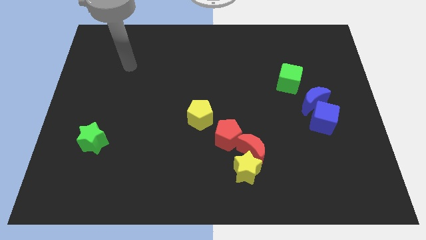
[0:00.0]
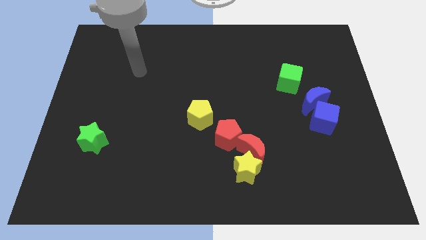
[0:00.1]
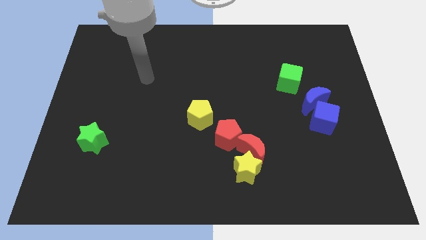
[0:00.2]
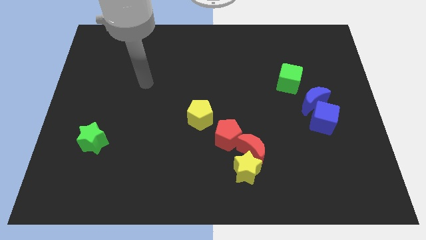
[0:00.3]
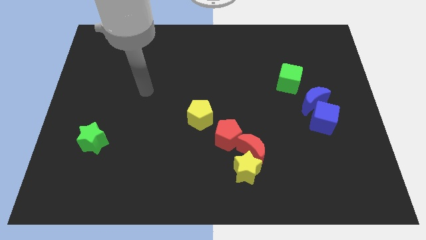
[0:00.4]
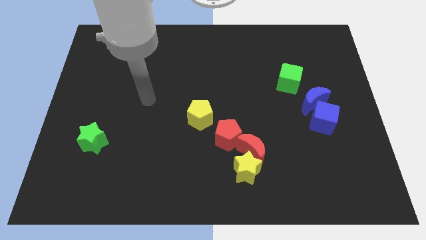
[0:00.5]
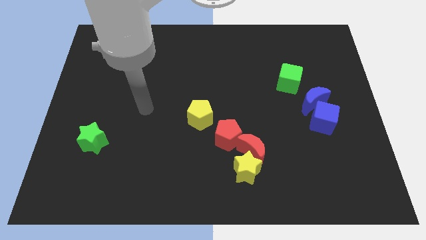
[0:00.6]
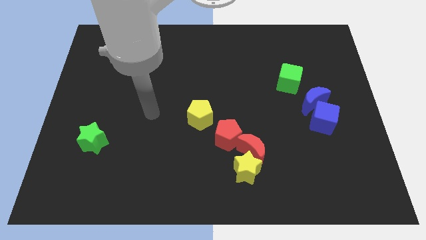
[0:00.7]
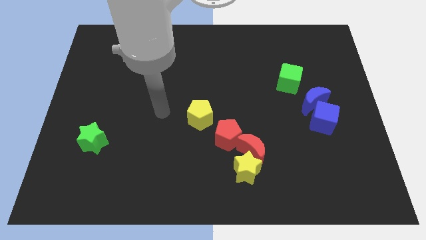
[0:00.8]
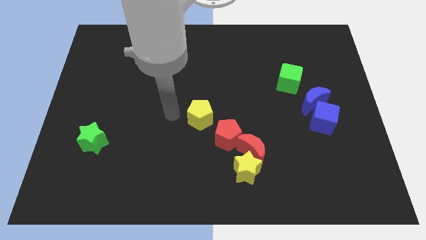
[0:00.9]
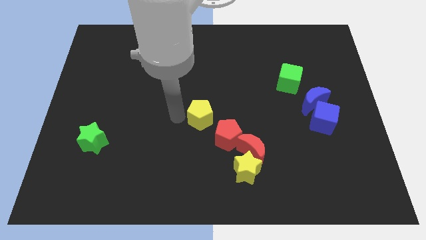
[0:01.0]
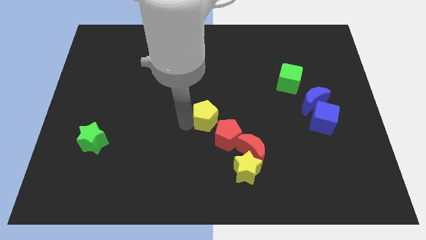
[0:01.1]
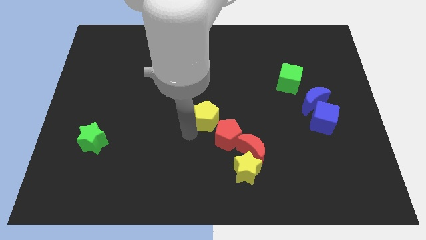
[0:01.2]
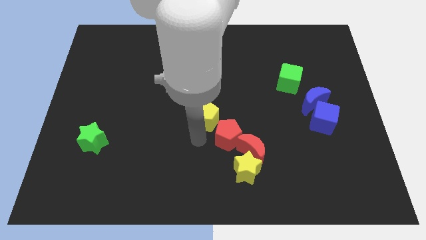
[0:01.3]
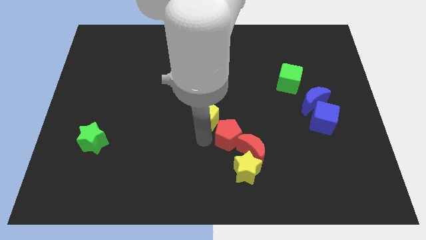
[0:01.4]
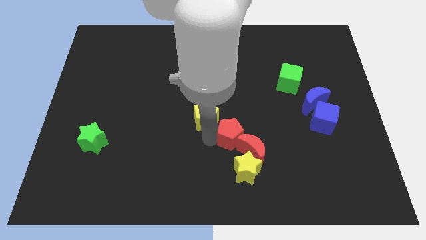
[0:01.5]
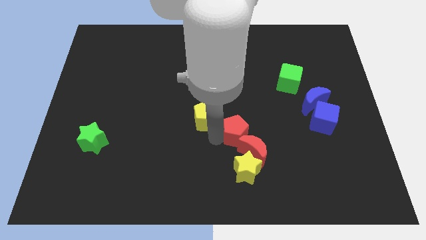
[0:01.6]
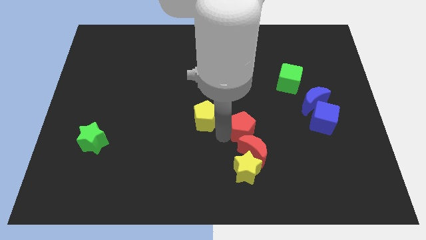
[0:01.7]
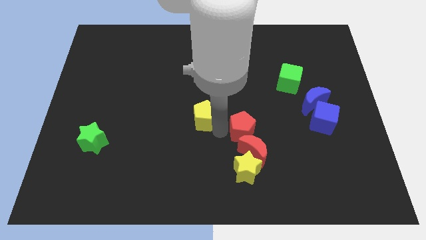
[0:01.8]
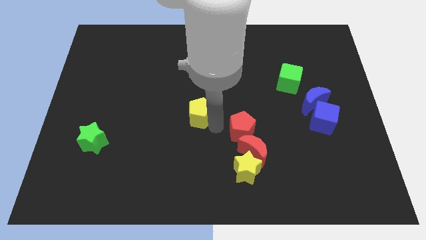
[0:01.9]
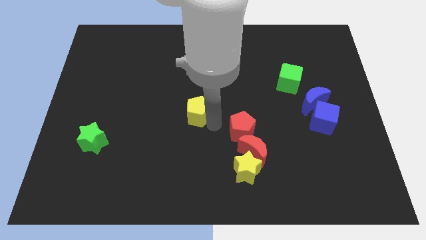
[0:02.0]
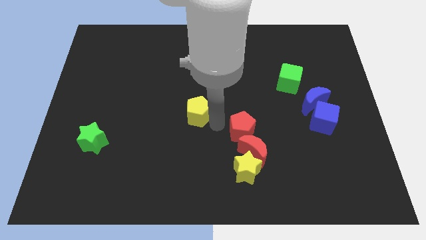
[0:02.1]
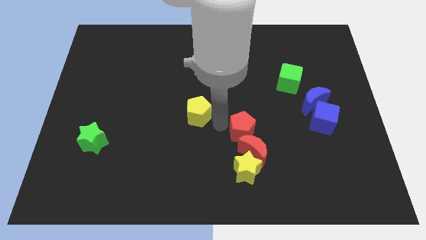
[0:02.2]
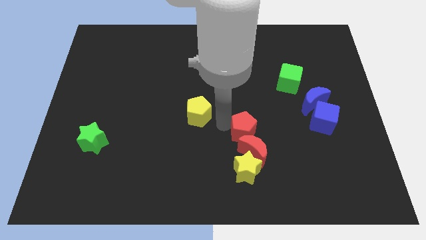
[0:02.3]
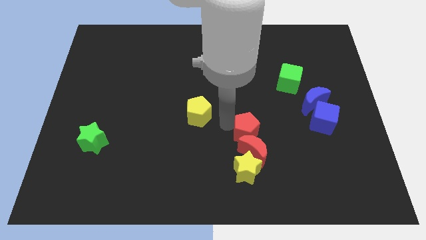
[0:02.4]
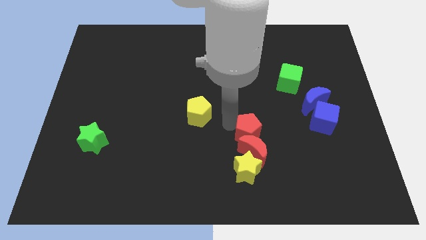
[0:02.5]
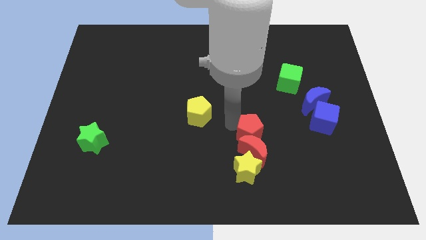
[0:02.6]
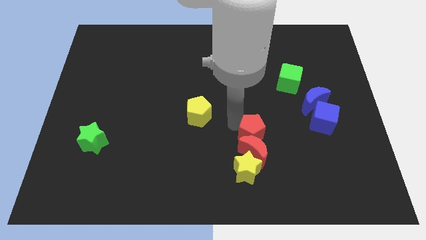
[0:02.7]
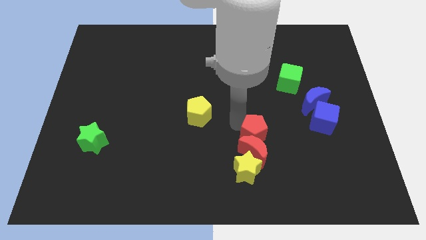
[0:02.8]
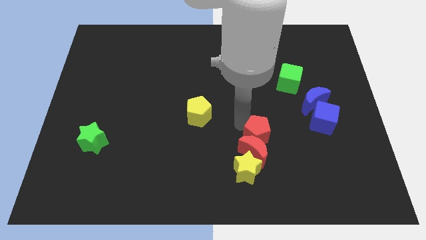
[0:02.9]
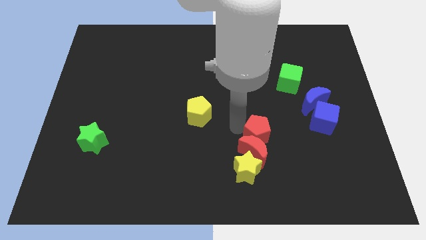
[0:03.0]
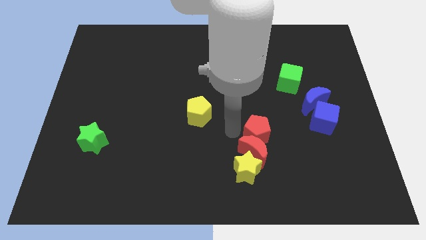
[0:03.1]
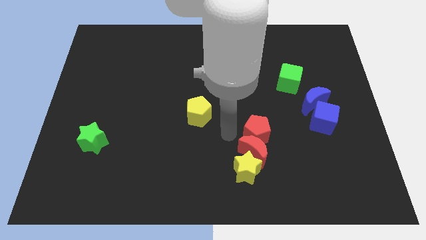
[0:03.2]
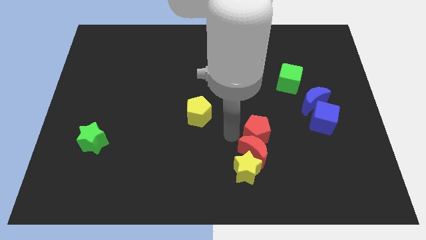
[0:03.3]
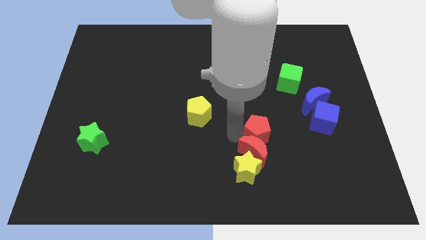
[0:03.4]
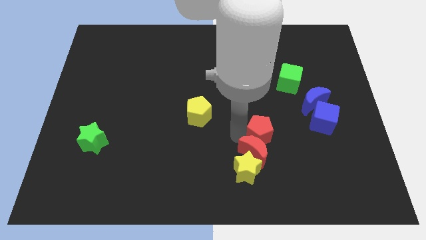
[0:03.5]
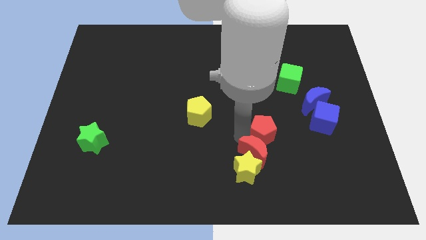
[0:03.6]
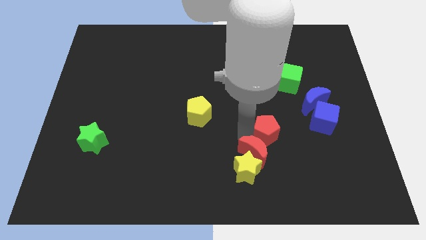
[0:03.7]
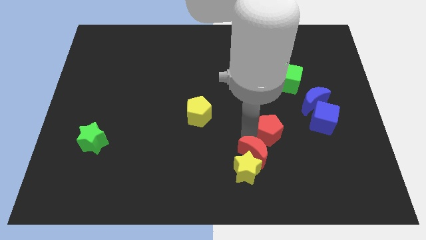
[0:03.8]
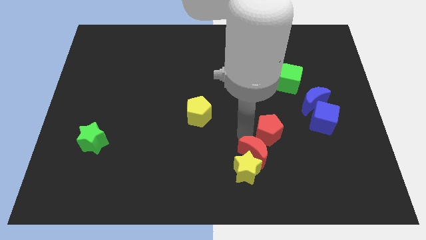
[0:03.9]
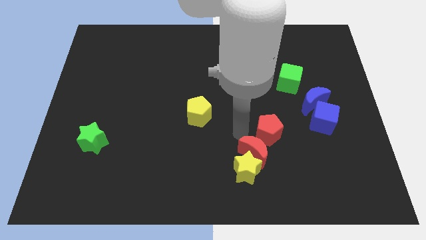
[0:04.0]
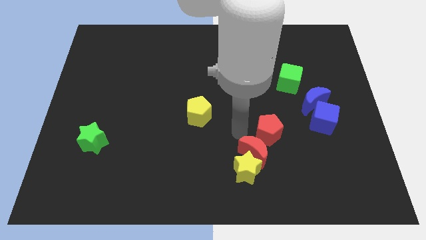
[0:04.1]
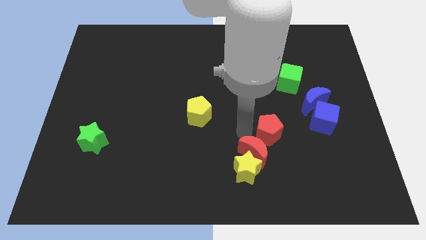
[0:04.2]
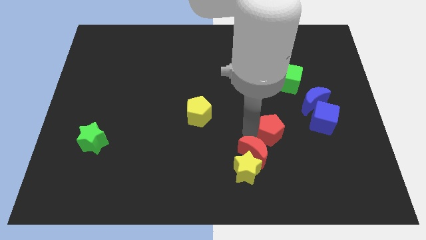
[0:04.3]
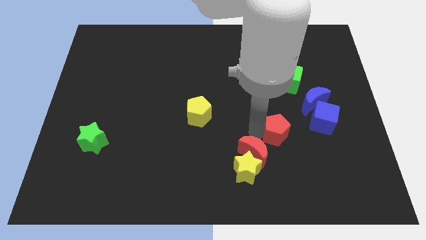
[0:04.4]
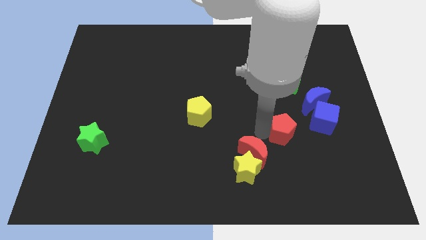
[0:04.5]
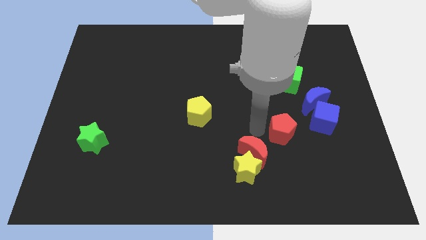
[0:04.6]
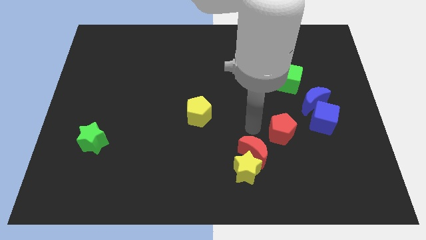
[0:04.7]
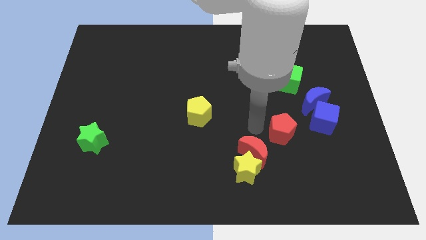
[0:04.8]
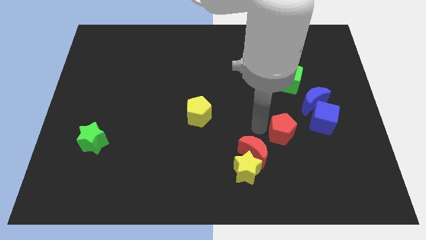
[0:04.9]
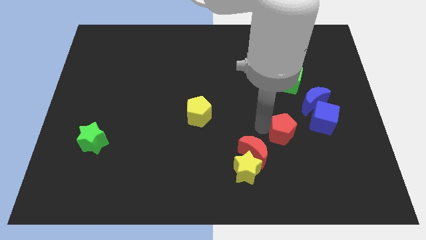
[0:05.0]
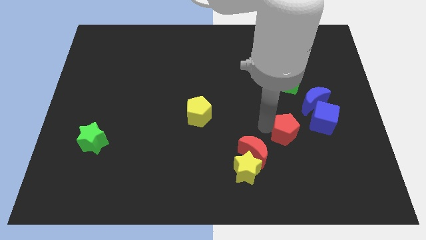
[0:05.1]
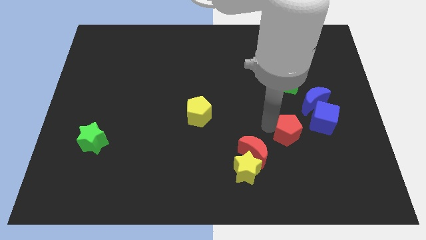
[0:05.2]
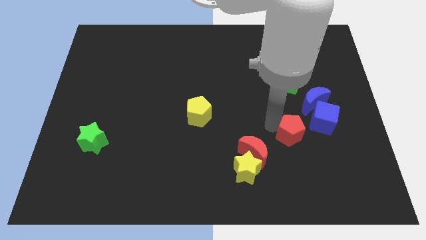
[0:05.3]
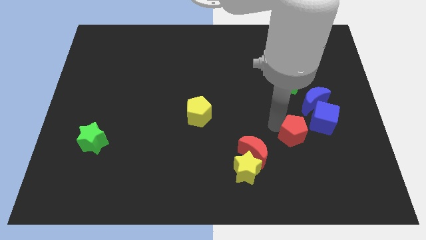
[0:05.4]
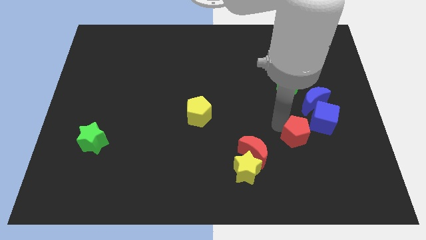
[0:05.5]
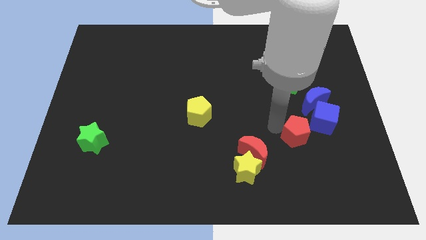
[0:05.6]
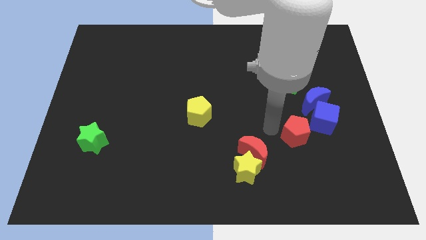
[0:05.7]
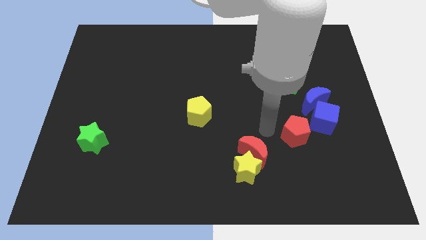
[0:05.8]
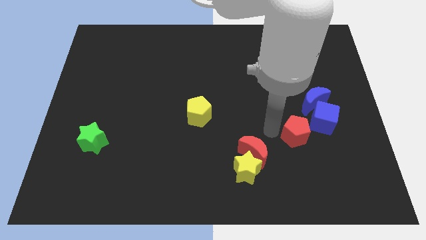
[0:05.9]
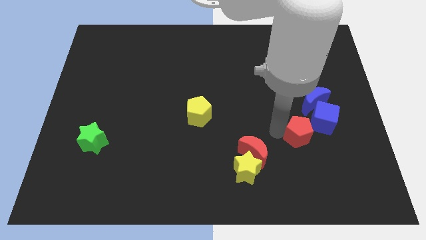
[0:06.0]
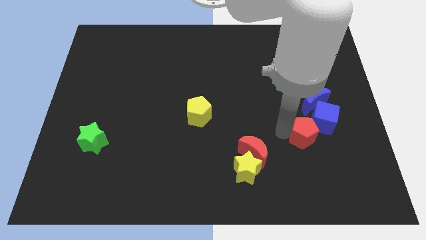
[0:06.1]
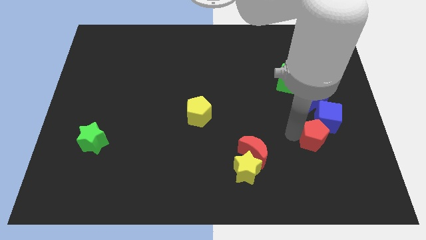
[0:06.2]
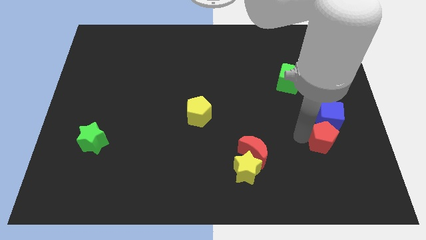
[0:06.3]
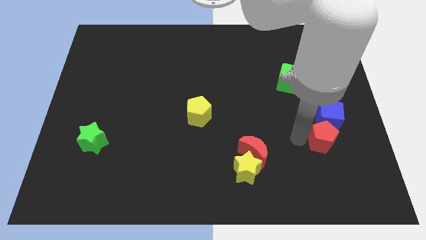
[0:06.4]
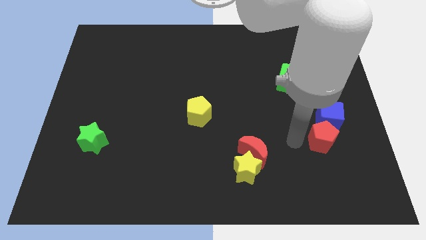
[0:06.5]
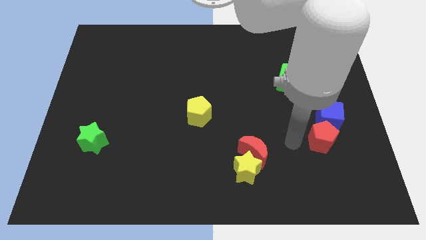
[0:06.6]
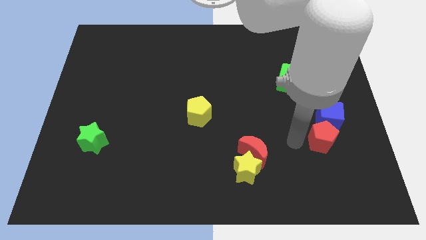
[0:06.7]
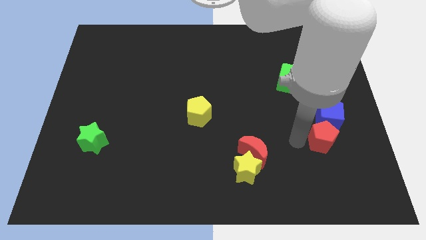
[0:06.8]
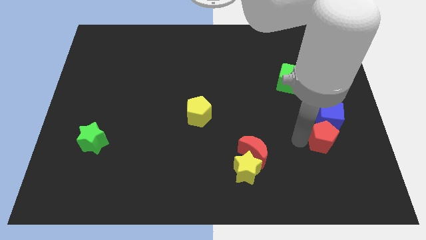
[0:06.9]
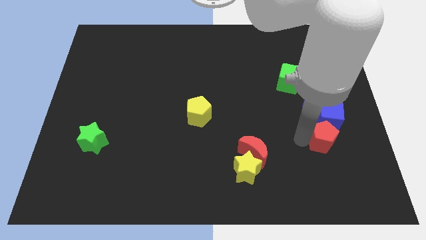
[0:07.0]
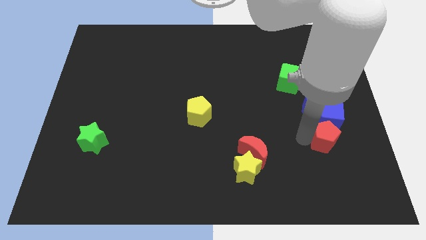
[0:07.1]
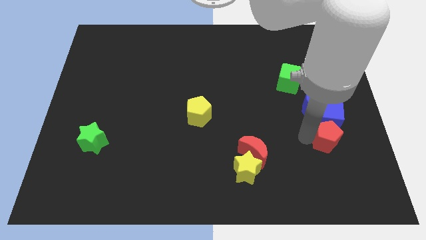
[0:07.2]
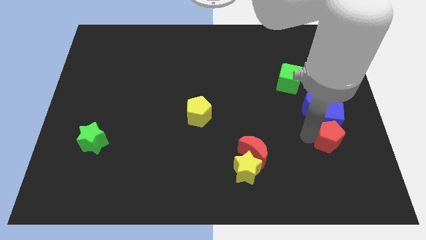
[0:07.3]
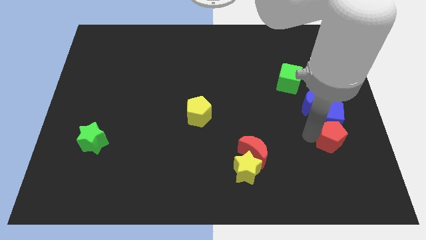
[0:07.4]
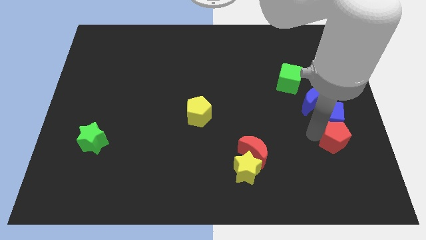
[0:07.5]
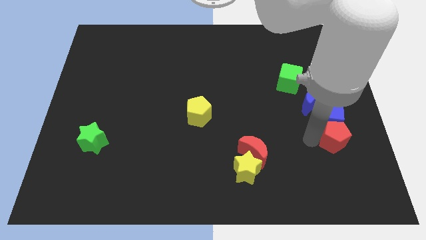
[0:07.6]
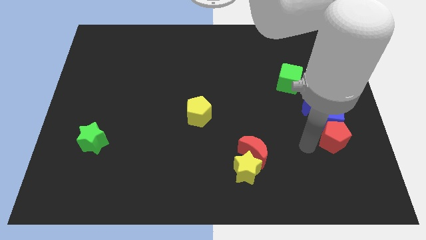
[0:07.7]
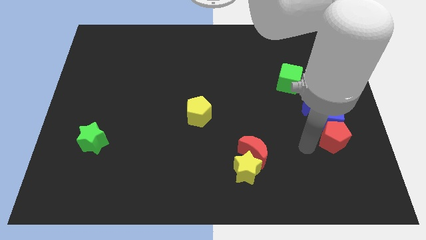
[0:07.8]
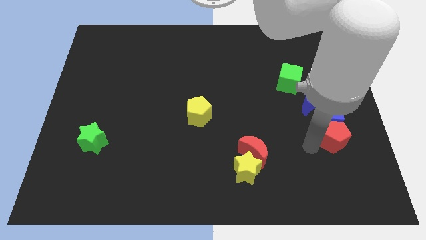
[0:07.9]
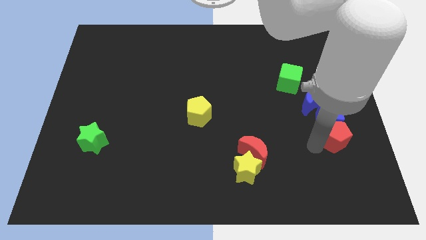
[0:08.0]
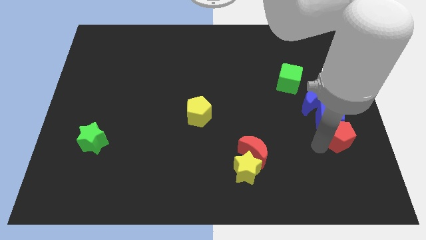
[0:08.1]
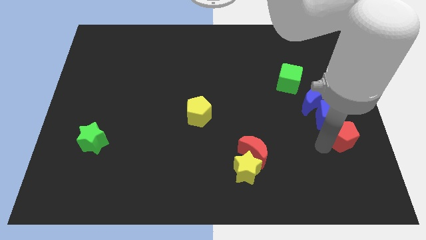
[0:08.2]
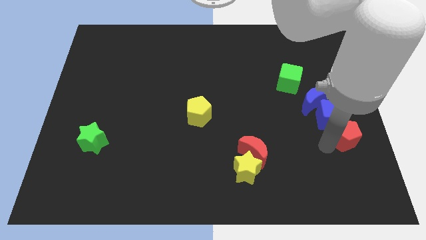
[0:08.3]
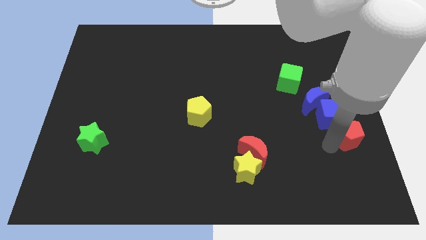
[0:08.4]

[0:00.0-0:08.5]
slide the red pentagon to the center right
